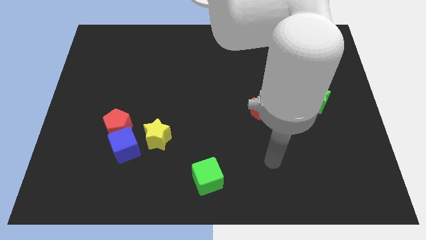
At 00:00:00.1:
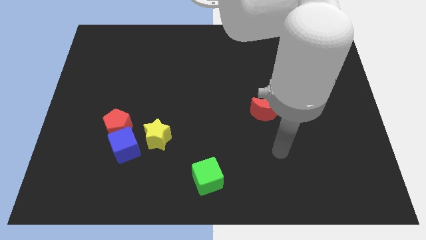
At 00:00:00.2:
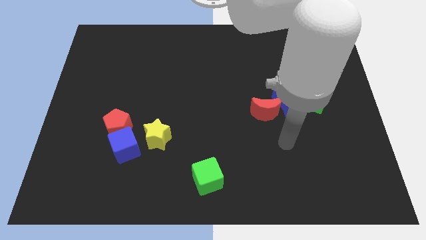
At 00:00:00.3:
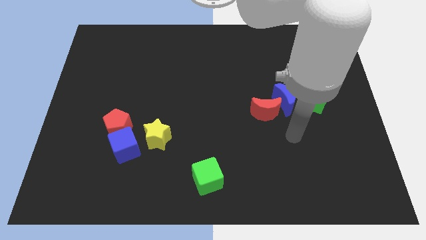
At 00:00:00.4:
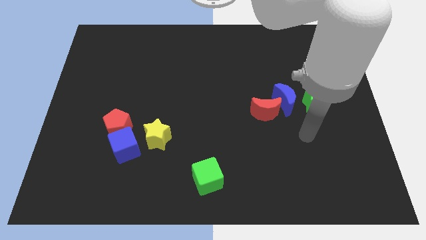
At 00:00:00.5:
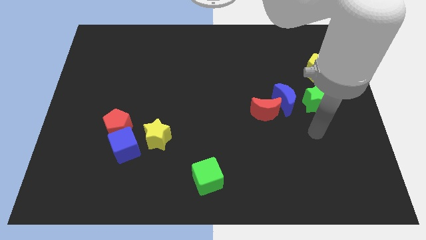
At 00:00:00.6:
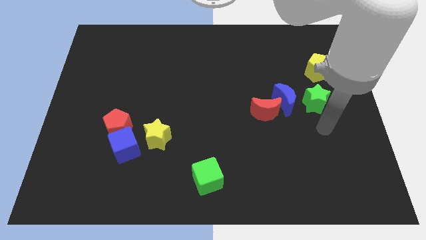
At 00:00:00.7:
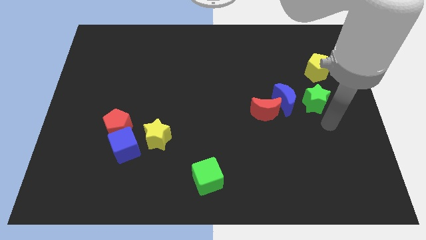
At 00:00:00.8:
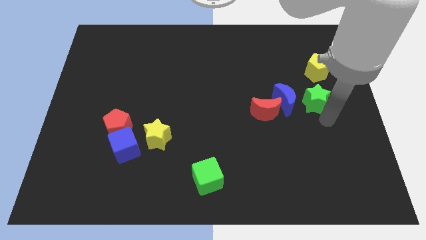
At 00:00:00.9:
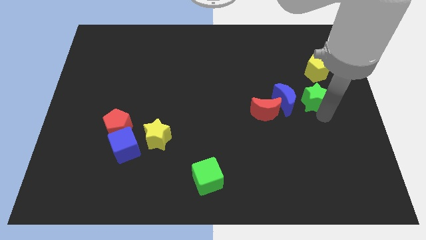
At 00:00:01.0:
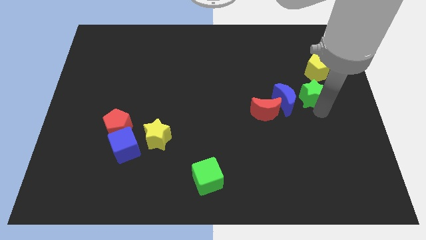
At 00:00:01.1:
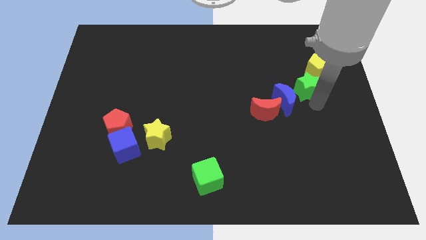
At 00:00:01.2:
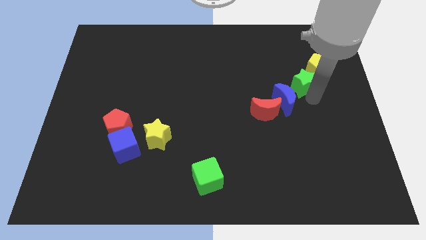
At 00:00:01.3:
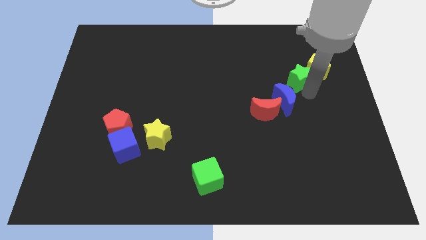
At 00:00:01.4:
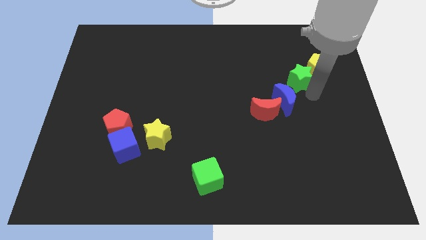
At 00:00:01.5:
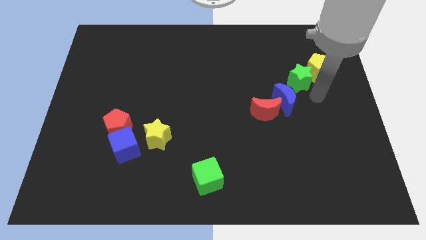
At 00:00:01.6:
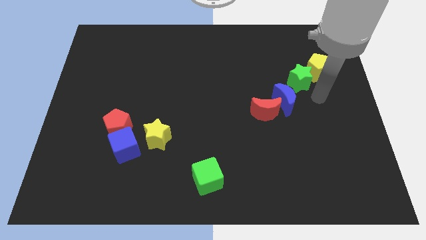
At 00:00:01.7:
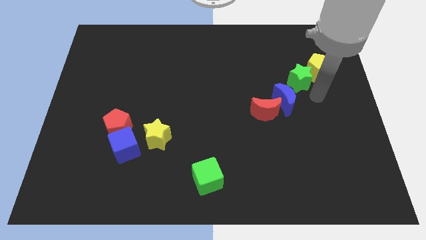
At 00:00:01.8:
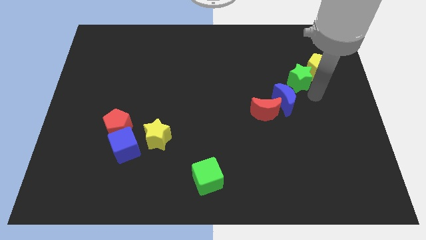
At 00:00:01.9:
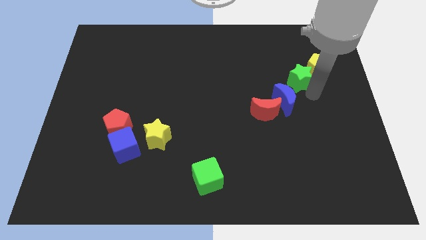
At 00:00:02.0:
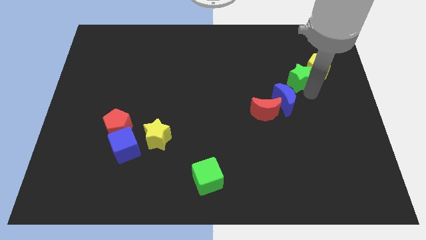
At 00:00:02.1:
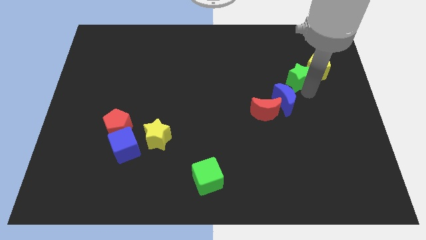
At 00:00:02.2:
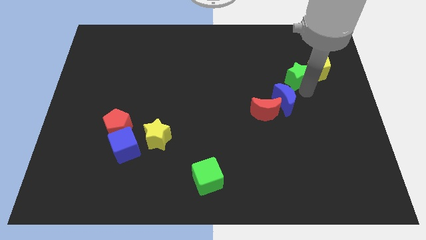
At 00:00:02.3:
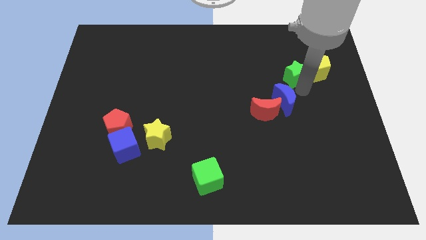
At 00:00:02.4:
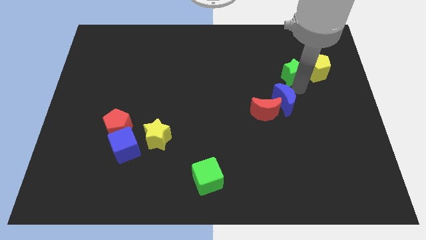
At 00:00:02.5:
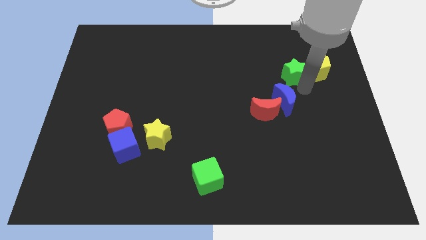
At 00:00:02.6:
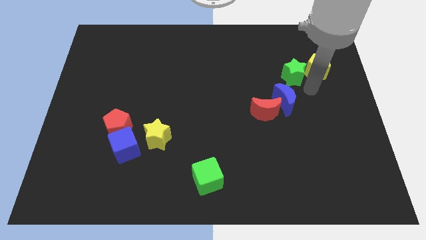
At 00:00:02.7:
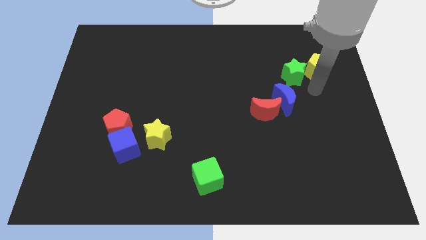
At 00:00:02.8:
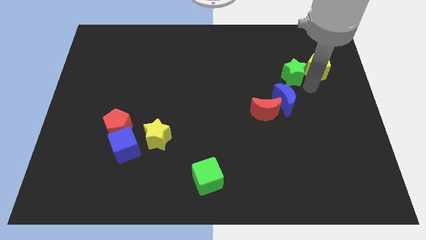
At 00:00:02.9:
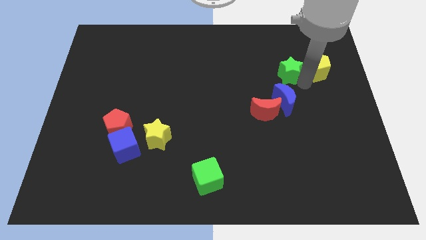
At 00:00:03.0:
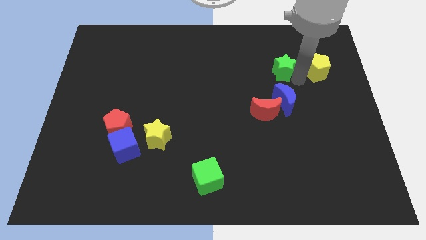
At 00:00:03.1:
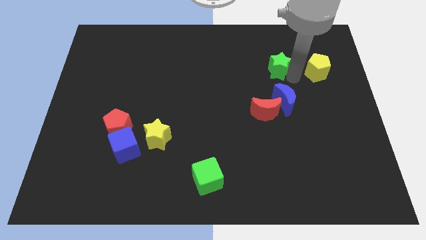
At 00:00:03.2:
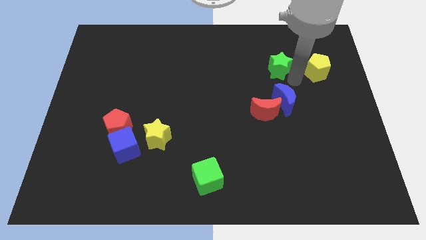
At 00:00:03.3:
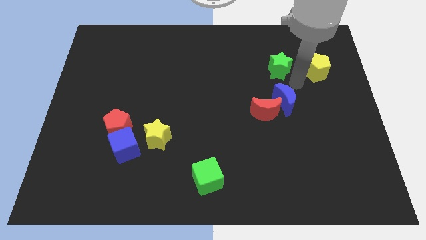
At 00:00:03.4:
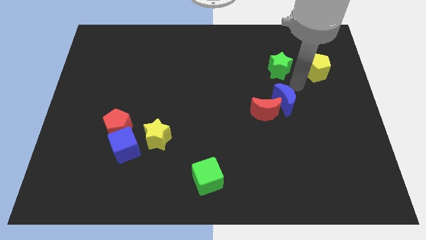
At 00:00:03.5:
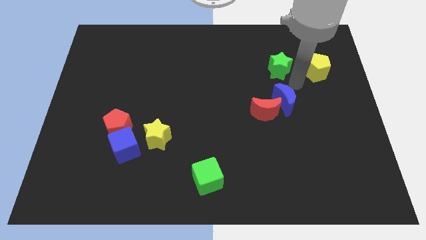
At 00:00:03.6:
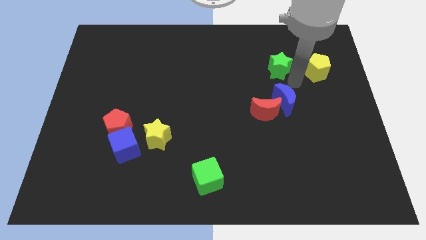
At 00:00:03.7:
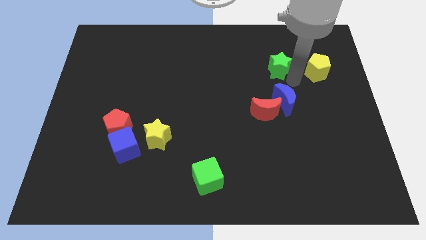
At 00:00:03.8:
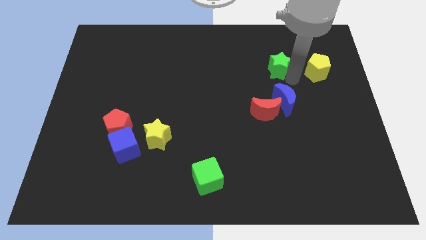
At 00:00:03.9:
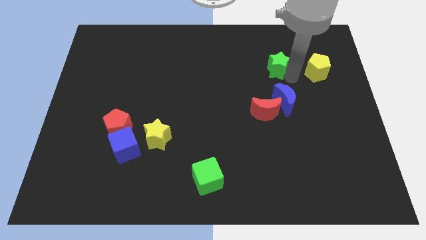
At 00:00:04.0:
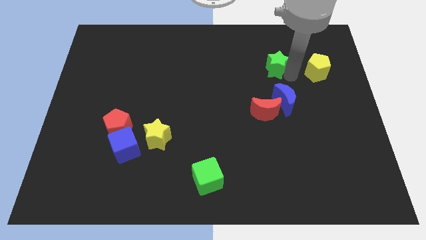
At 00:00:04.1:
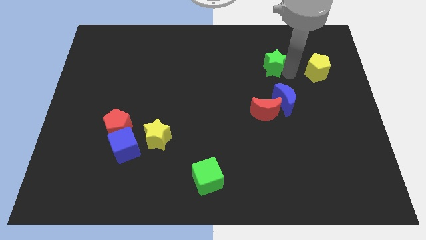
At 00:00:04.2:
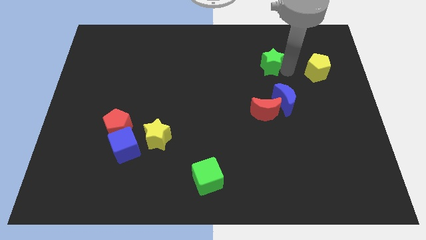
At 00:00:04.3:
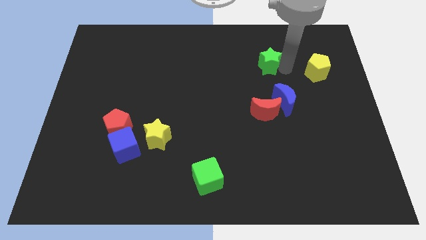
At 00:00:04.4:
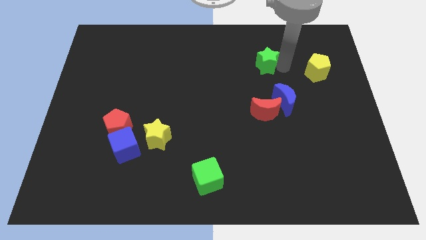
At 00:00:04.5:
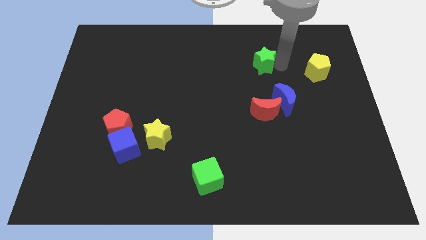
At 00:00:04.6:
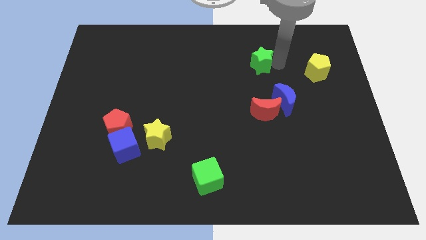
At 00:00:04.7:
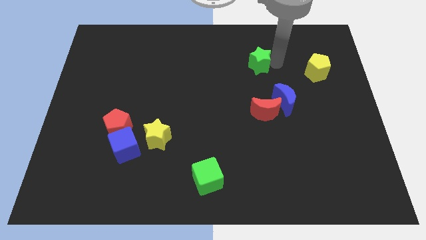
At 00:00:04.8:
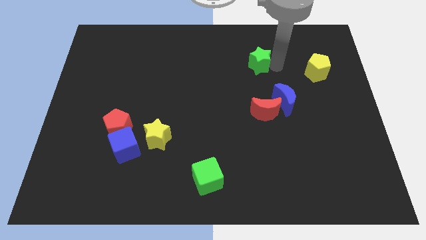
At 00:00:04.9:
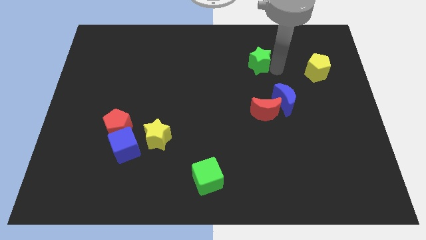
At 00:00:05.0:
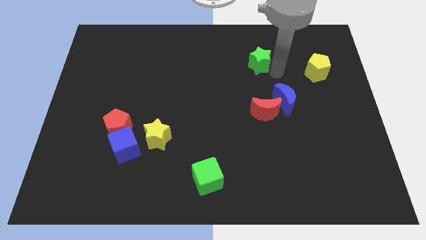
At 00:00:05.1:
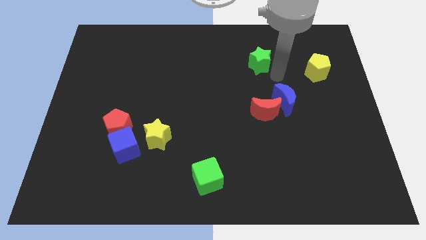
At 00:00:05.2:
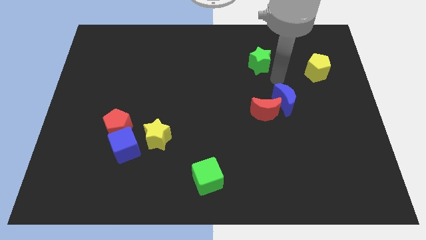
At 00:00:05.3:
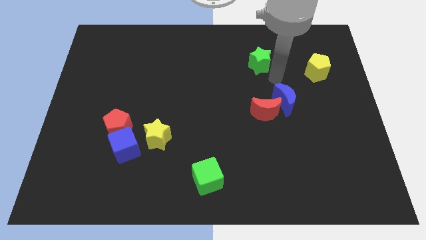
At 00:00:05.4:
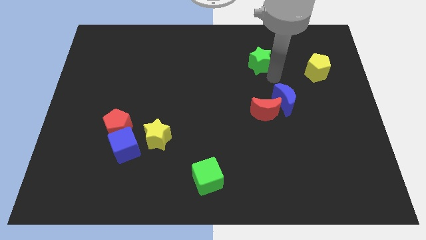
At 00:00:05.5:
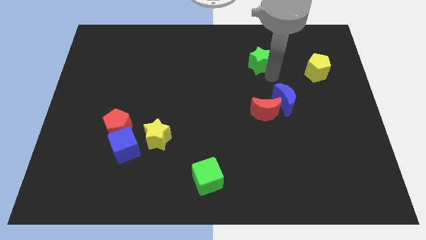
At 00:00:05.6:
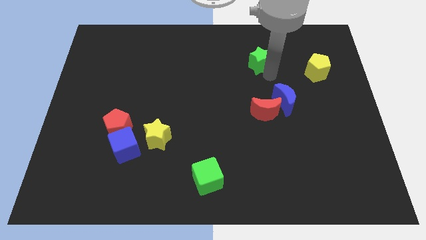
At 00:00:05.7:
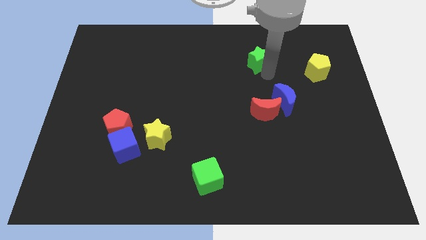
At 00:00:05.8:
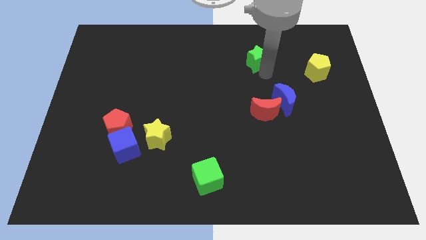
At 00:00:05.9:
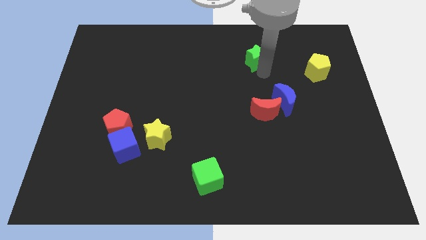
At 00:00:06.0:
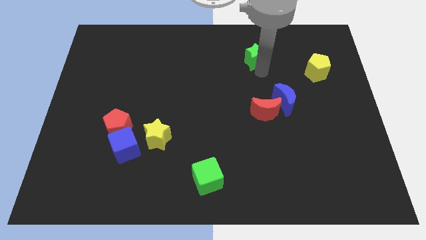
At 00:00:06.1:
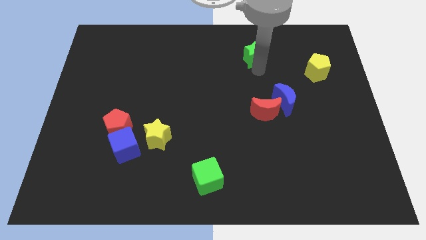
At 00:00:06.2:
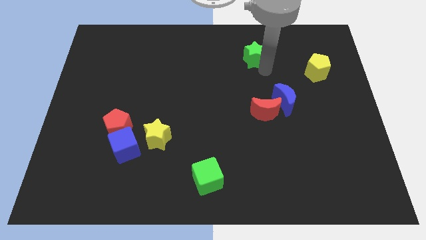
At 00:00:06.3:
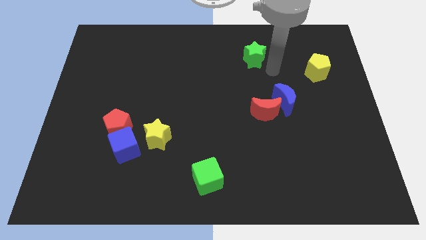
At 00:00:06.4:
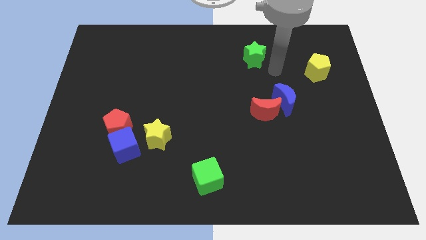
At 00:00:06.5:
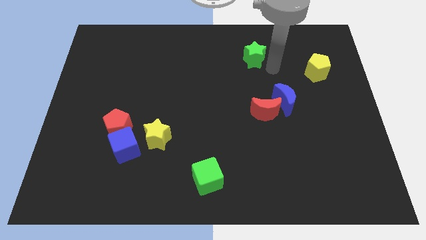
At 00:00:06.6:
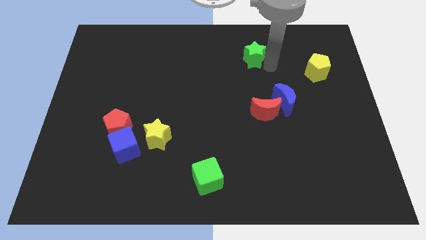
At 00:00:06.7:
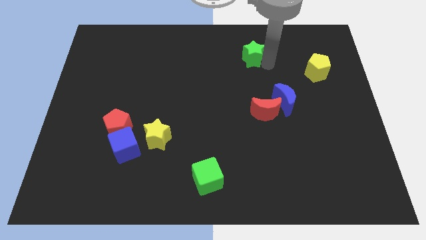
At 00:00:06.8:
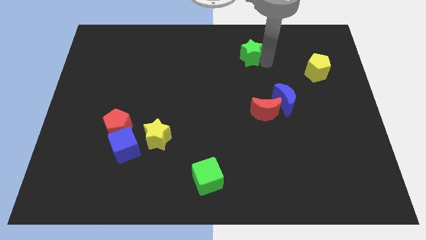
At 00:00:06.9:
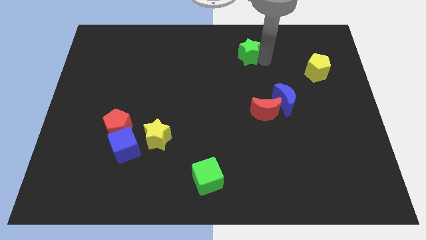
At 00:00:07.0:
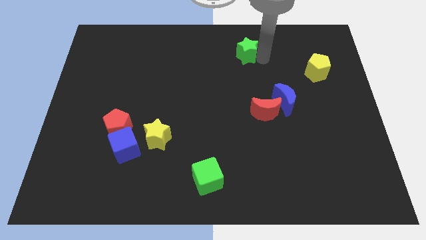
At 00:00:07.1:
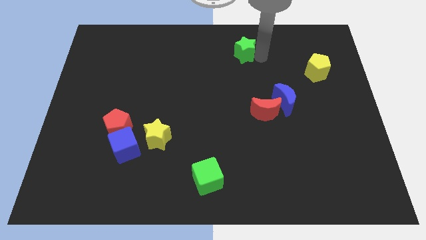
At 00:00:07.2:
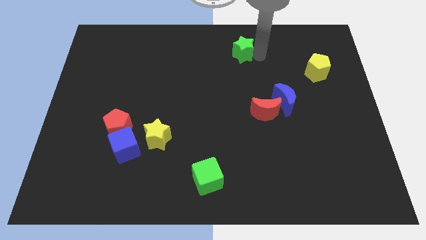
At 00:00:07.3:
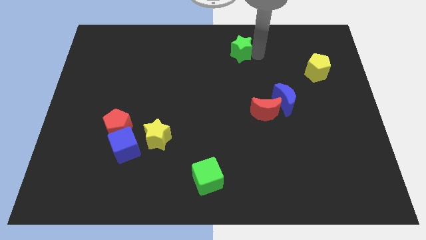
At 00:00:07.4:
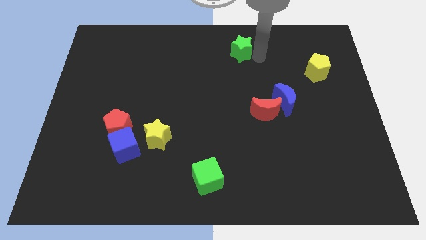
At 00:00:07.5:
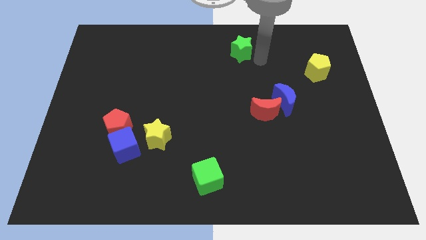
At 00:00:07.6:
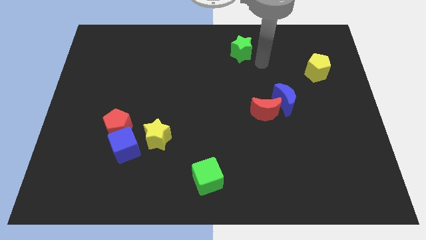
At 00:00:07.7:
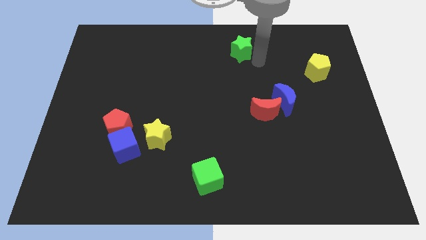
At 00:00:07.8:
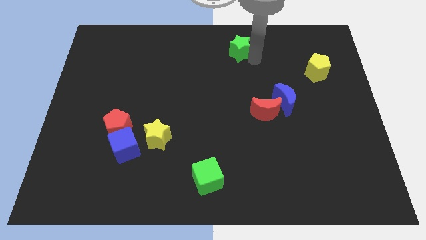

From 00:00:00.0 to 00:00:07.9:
slide the green star to the towards your base
